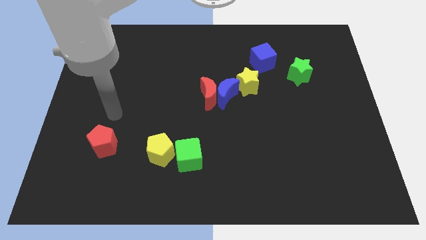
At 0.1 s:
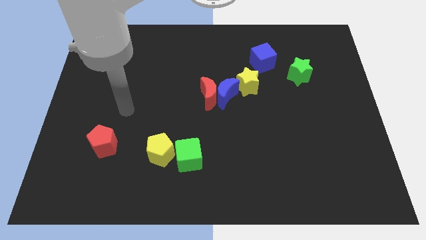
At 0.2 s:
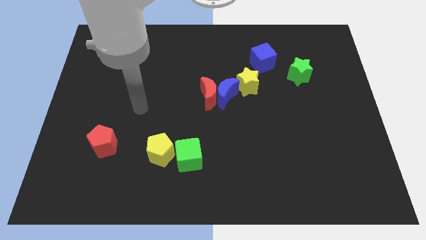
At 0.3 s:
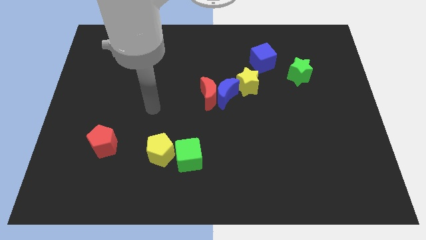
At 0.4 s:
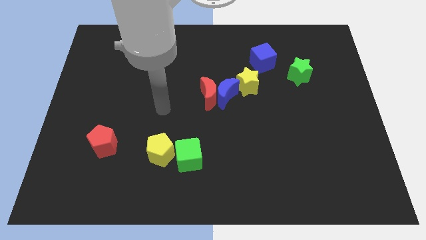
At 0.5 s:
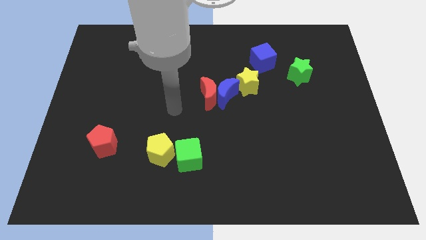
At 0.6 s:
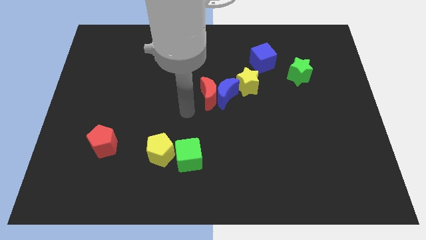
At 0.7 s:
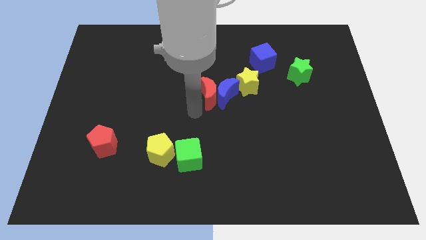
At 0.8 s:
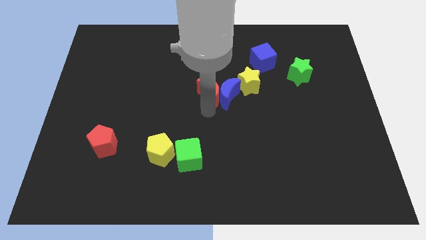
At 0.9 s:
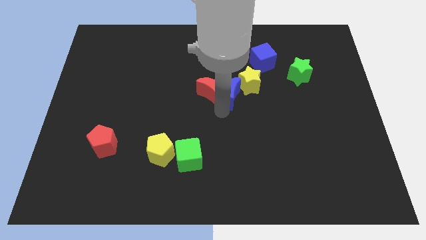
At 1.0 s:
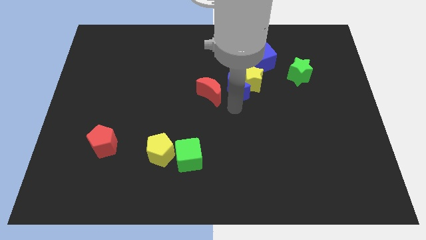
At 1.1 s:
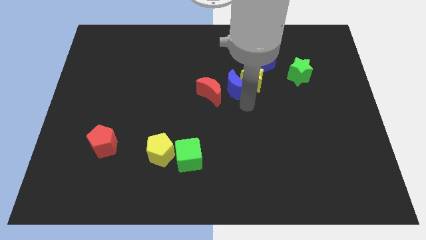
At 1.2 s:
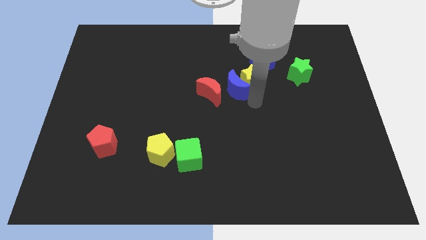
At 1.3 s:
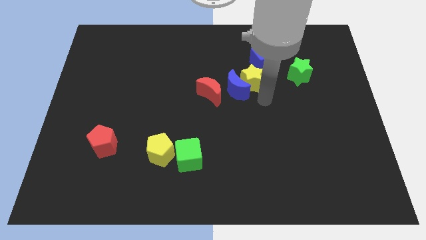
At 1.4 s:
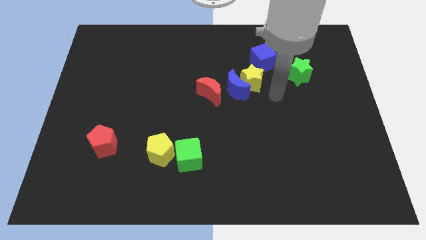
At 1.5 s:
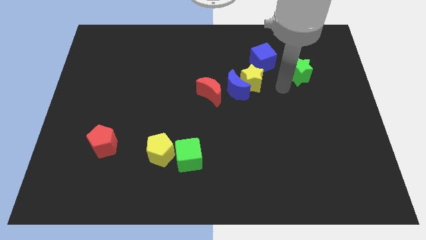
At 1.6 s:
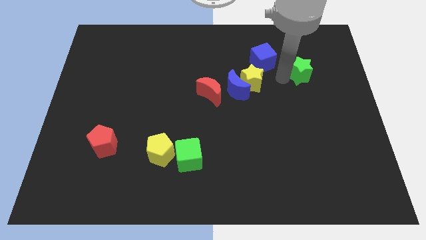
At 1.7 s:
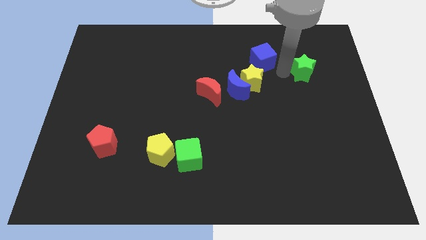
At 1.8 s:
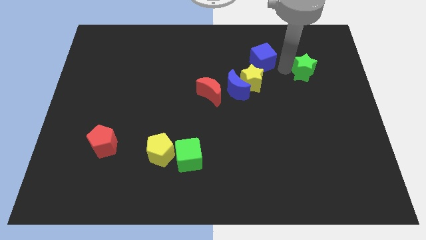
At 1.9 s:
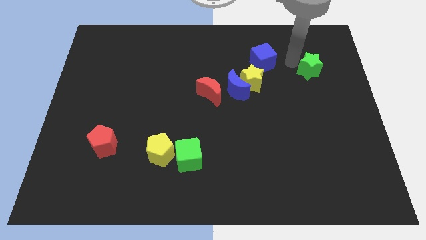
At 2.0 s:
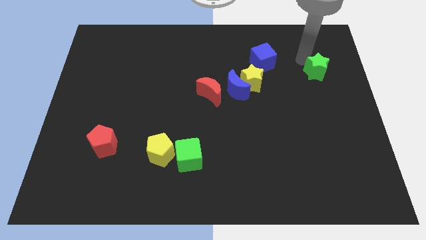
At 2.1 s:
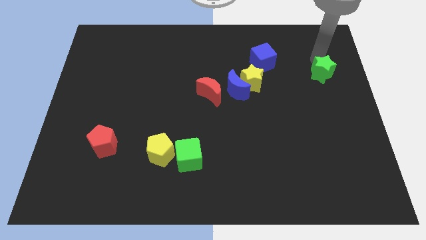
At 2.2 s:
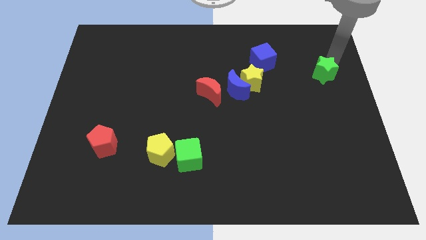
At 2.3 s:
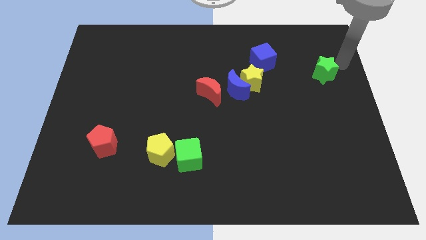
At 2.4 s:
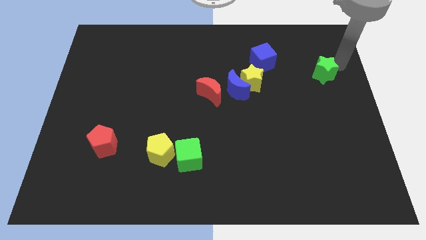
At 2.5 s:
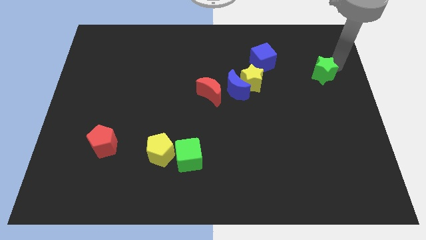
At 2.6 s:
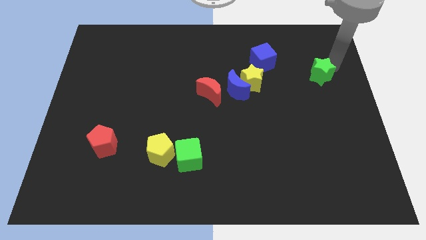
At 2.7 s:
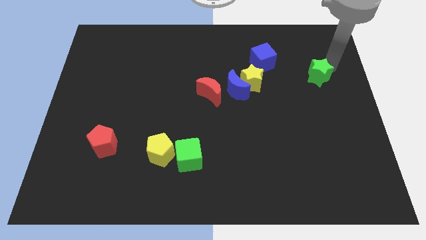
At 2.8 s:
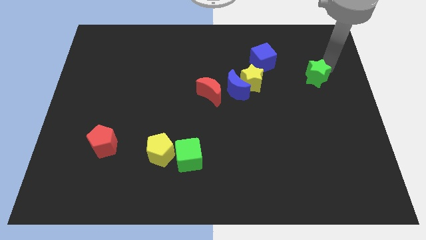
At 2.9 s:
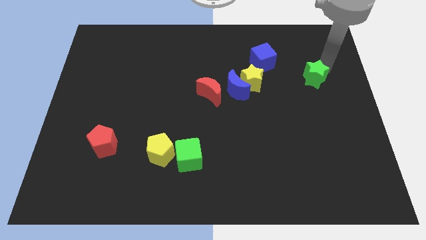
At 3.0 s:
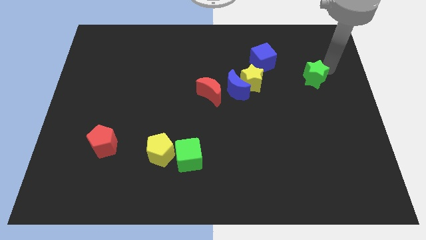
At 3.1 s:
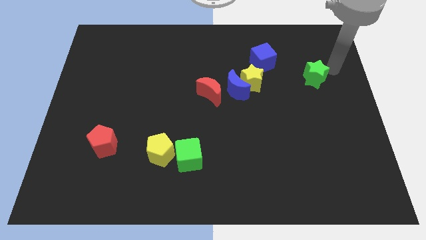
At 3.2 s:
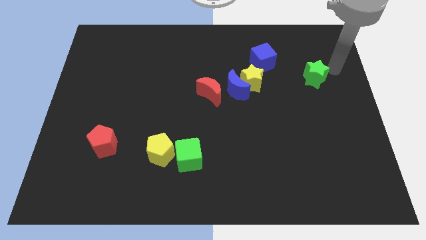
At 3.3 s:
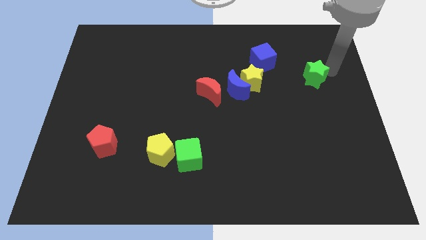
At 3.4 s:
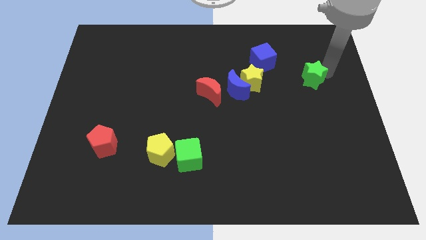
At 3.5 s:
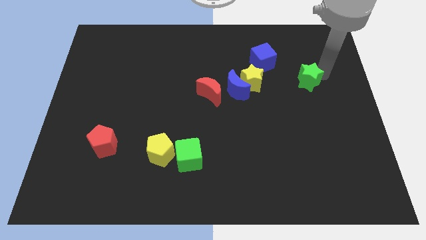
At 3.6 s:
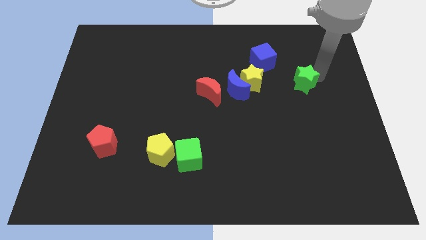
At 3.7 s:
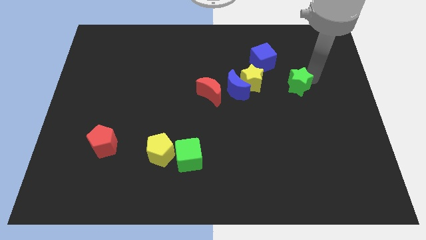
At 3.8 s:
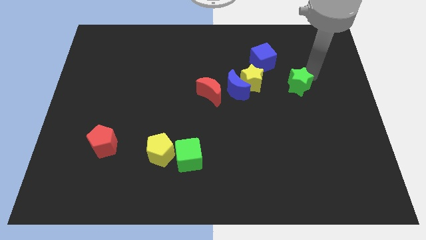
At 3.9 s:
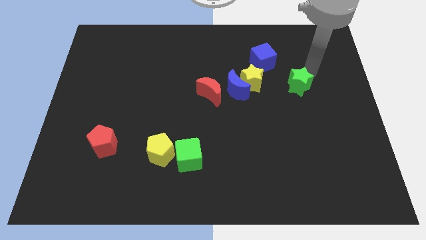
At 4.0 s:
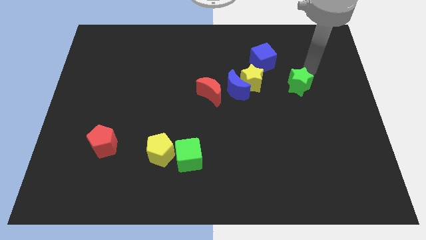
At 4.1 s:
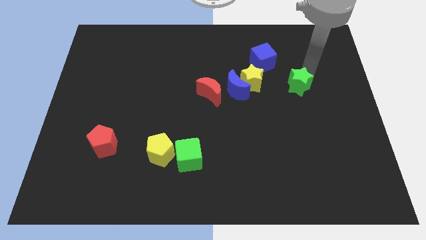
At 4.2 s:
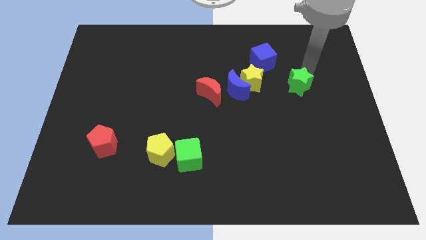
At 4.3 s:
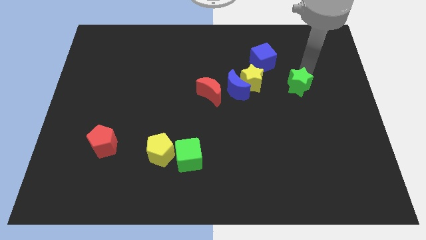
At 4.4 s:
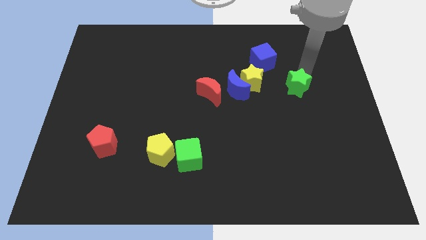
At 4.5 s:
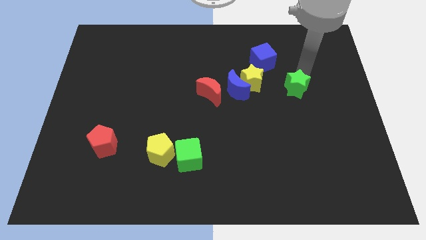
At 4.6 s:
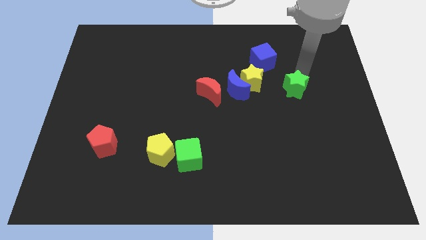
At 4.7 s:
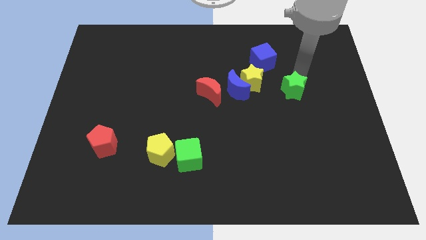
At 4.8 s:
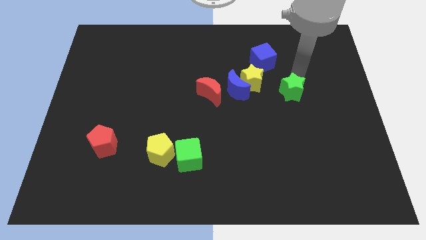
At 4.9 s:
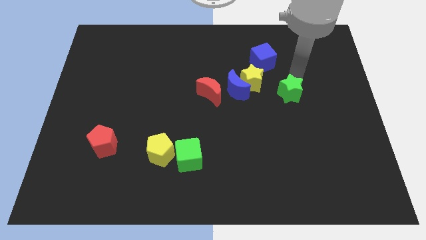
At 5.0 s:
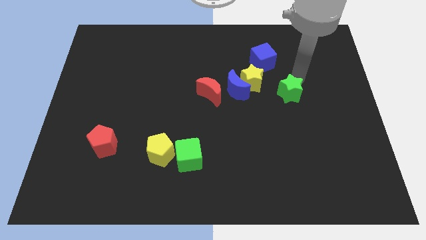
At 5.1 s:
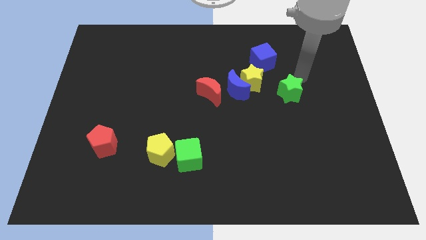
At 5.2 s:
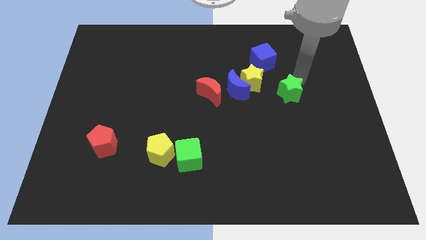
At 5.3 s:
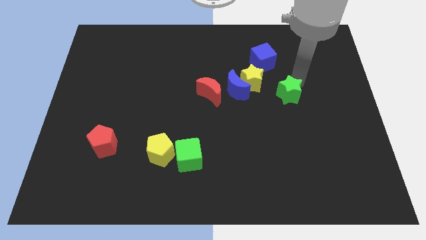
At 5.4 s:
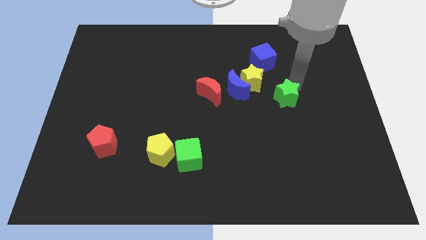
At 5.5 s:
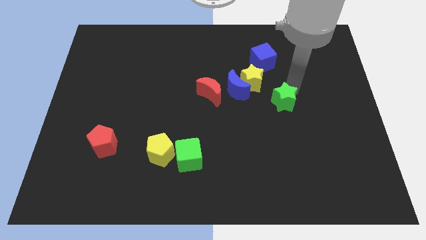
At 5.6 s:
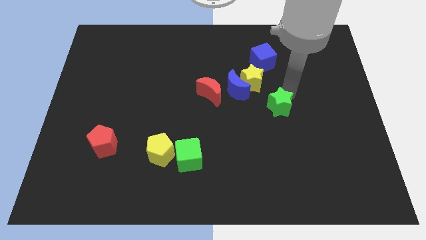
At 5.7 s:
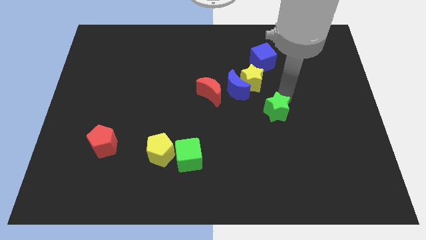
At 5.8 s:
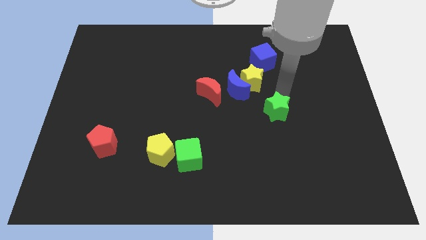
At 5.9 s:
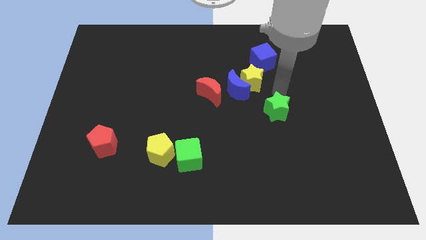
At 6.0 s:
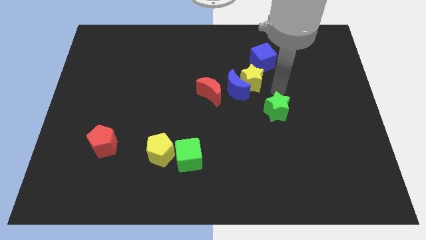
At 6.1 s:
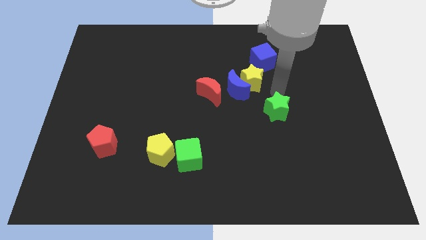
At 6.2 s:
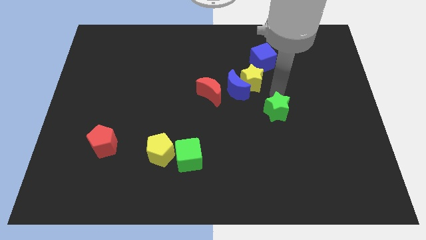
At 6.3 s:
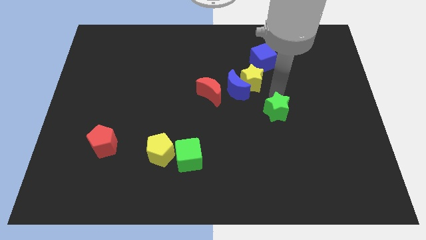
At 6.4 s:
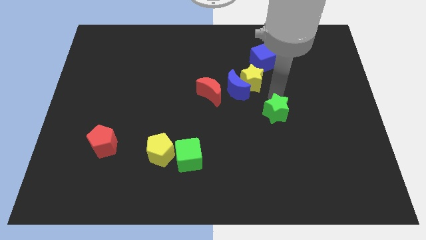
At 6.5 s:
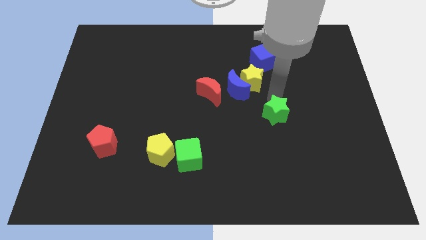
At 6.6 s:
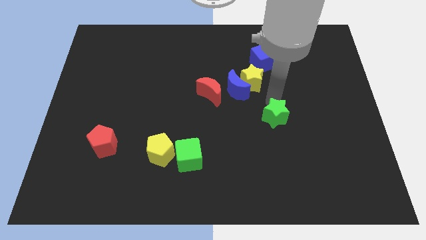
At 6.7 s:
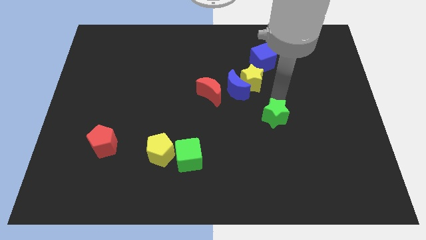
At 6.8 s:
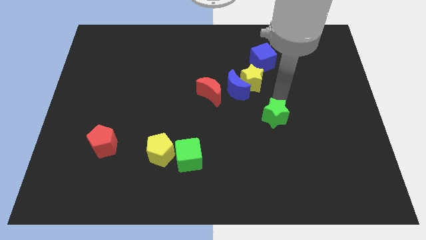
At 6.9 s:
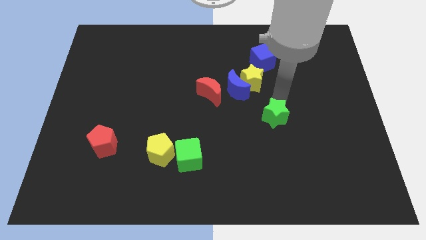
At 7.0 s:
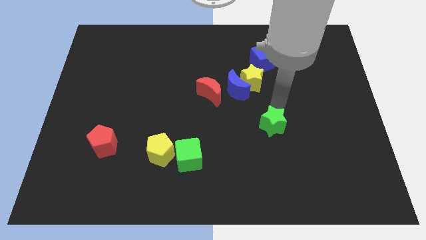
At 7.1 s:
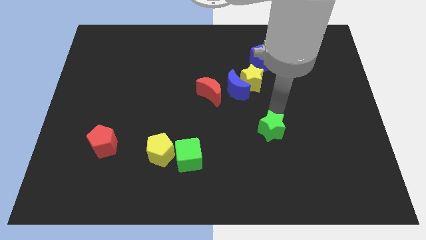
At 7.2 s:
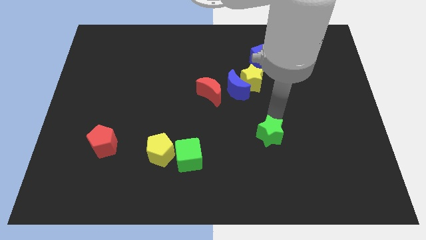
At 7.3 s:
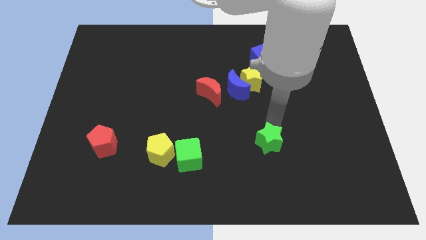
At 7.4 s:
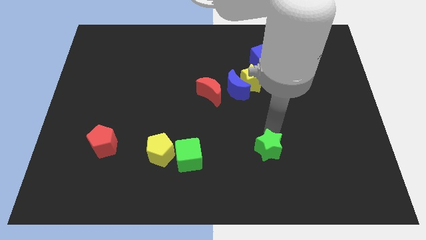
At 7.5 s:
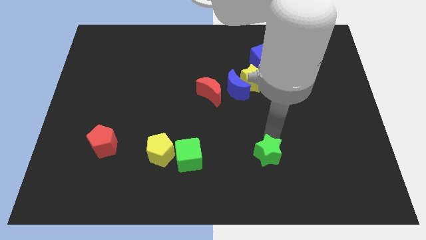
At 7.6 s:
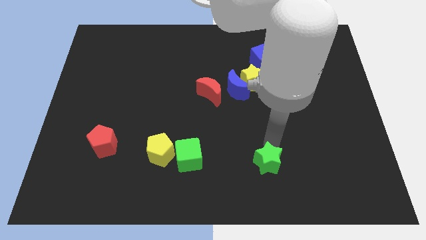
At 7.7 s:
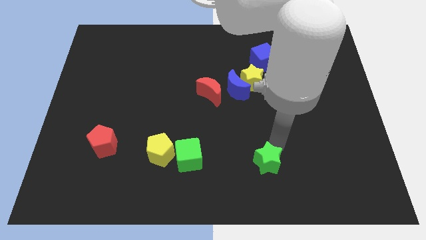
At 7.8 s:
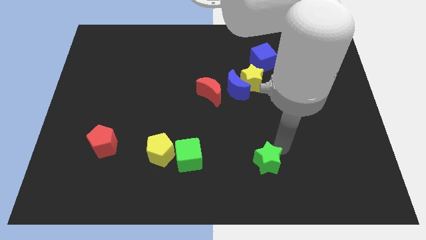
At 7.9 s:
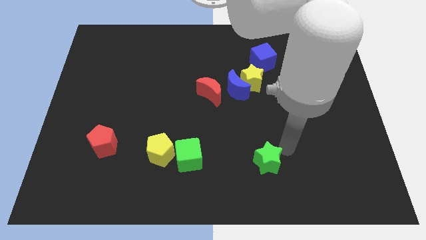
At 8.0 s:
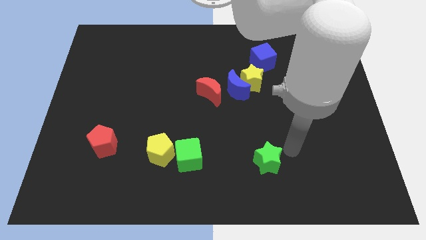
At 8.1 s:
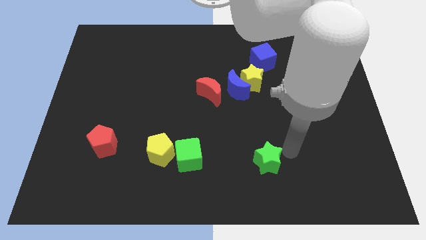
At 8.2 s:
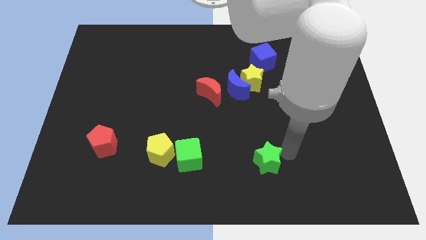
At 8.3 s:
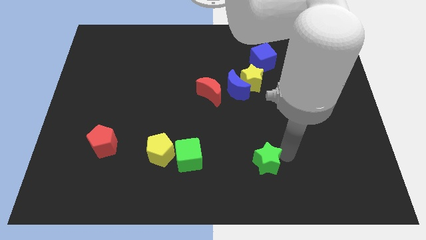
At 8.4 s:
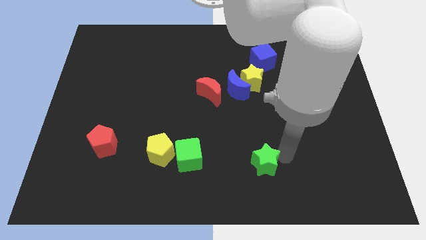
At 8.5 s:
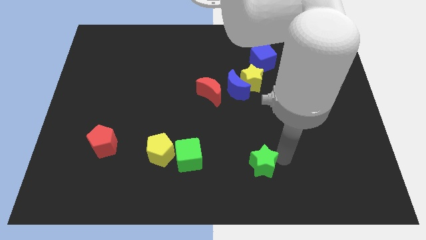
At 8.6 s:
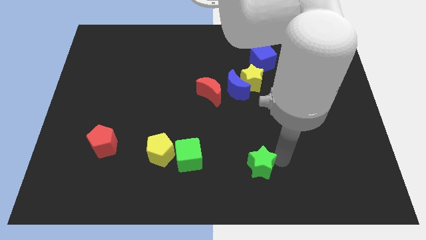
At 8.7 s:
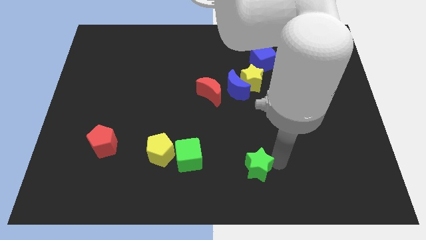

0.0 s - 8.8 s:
push the green star to the bottom
